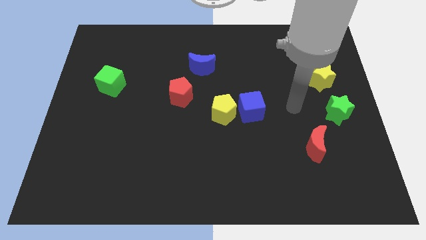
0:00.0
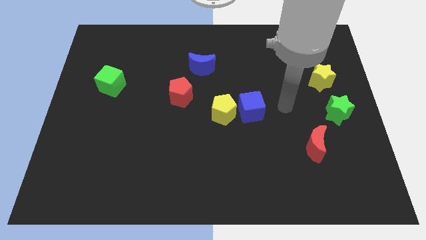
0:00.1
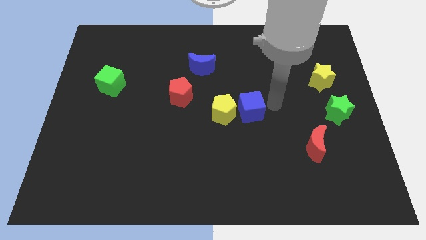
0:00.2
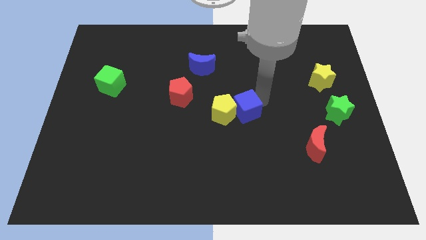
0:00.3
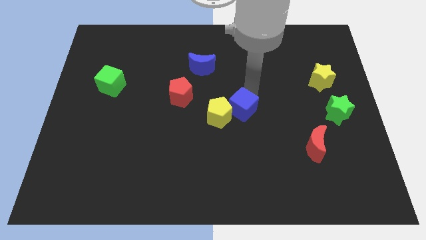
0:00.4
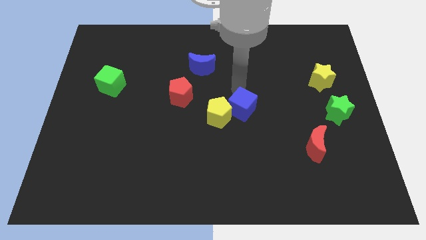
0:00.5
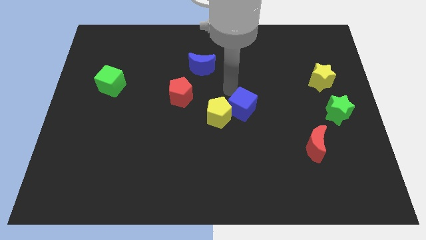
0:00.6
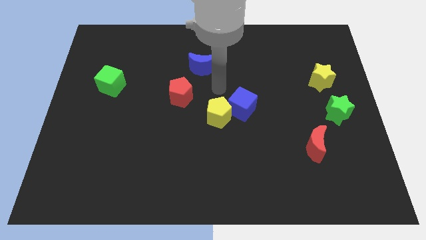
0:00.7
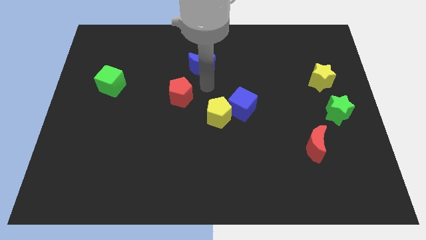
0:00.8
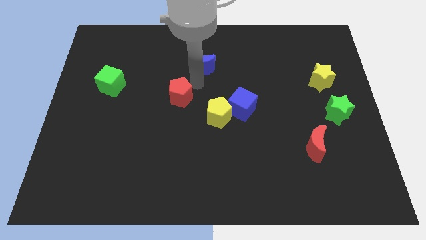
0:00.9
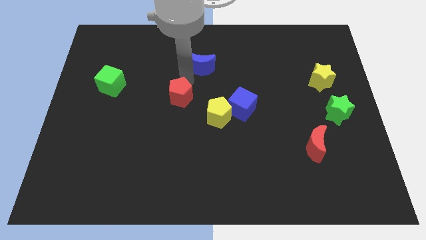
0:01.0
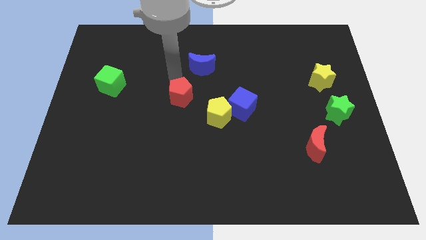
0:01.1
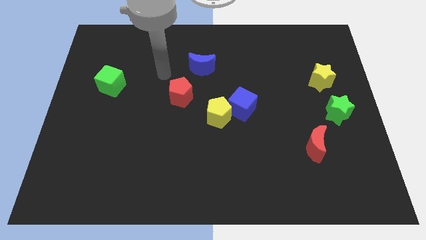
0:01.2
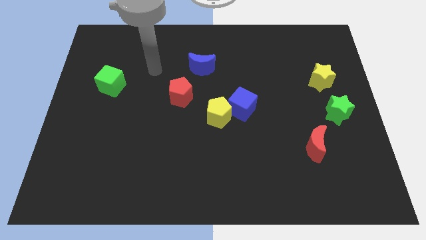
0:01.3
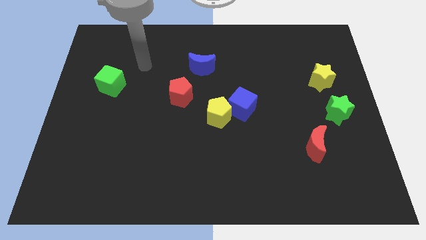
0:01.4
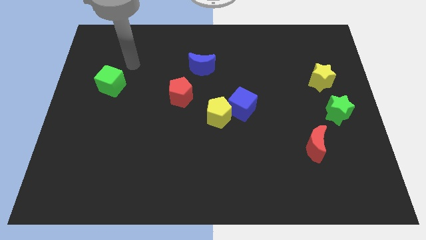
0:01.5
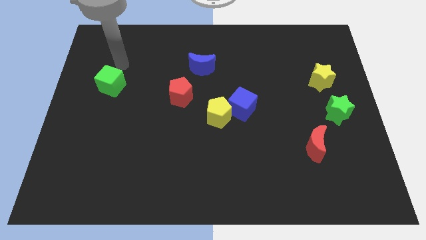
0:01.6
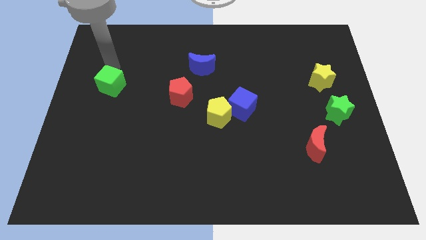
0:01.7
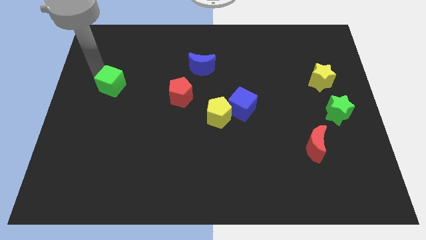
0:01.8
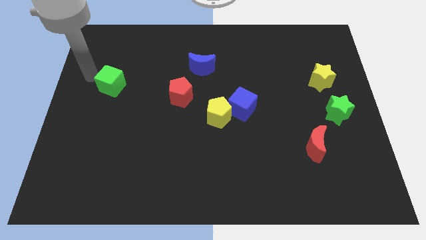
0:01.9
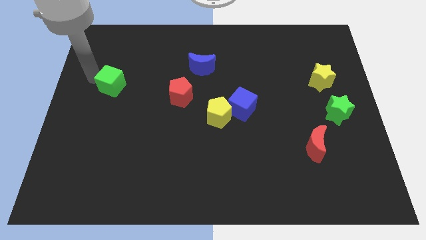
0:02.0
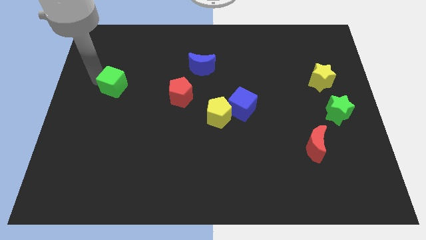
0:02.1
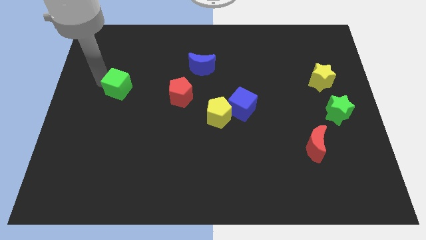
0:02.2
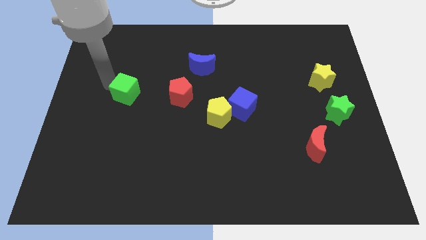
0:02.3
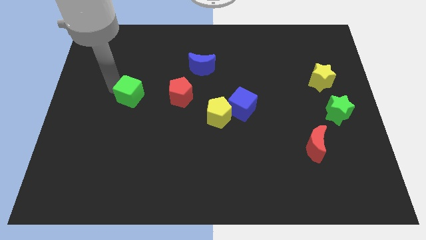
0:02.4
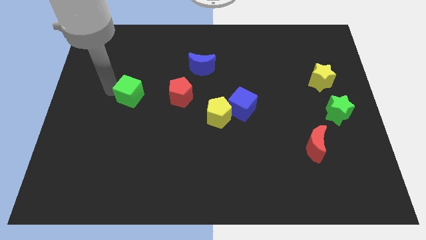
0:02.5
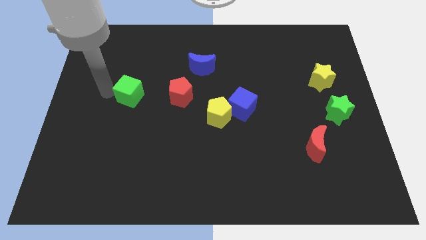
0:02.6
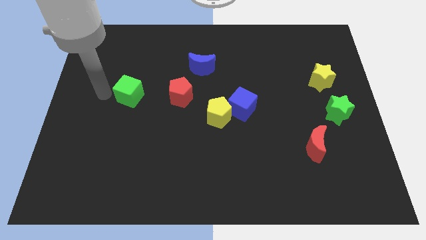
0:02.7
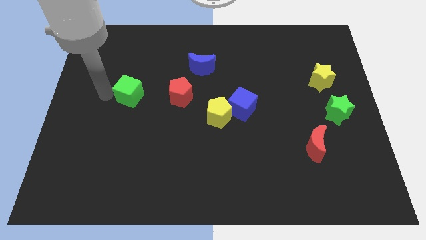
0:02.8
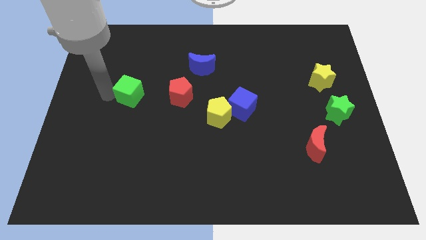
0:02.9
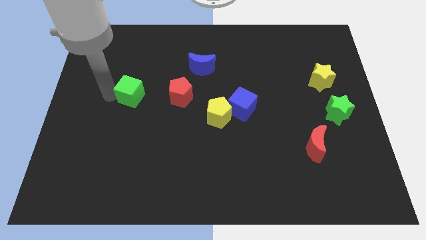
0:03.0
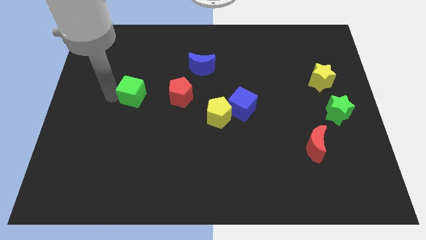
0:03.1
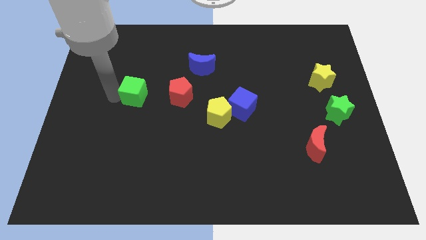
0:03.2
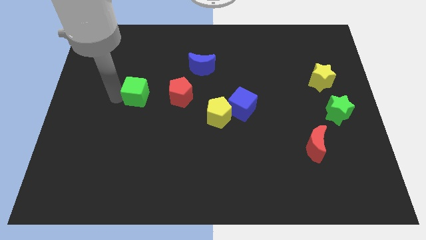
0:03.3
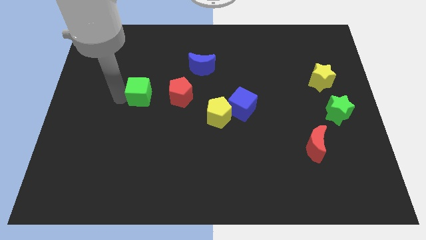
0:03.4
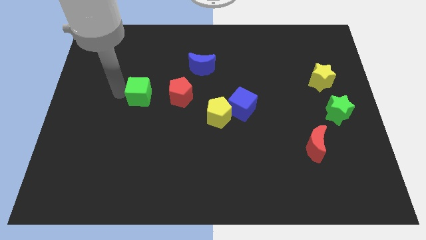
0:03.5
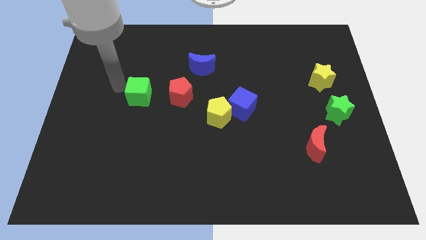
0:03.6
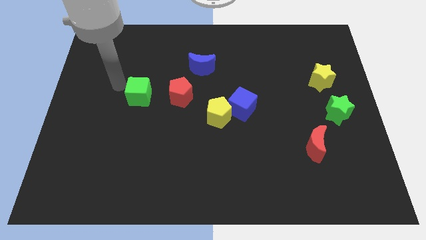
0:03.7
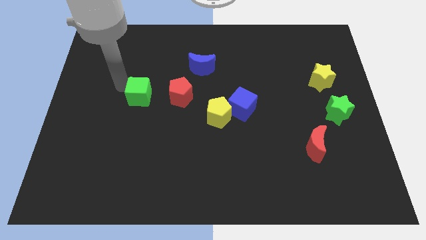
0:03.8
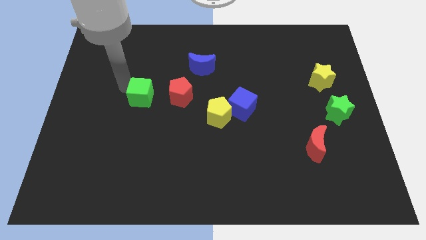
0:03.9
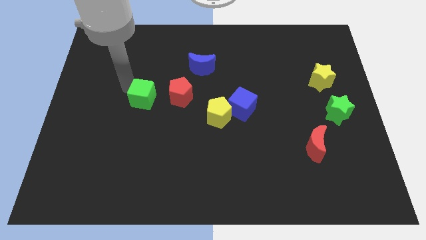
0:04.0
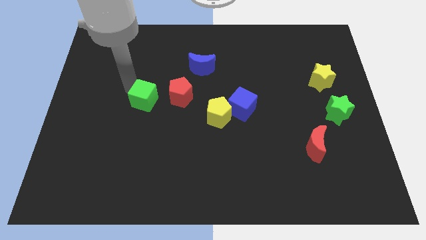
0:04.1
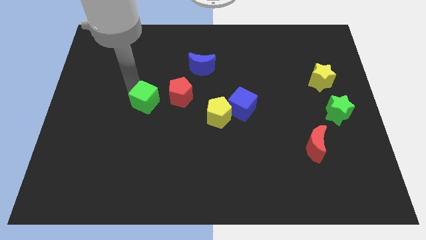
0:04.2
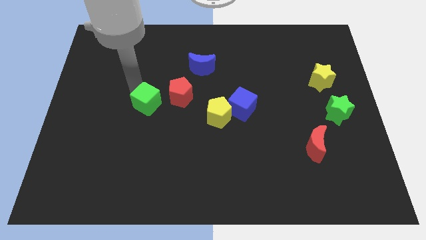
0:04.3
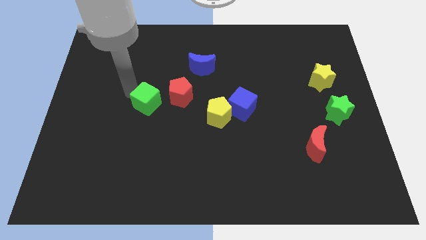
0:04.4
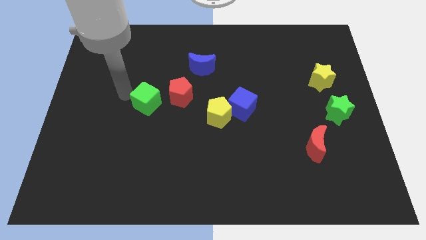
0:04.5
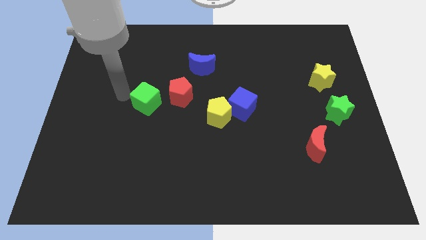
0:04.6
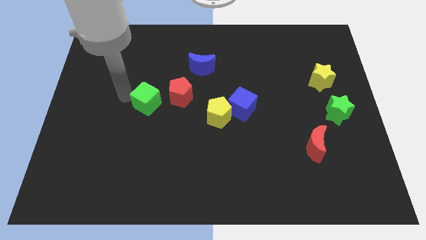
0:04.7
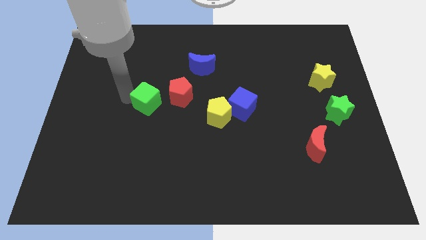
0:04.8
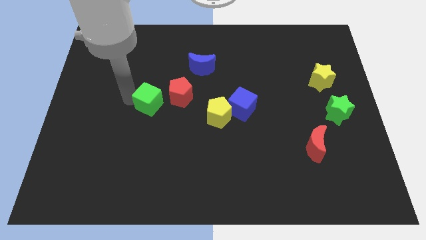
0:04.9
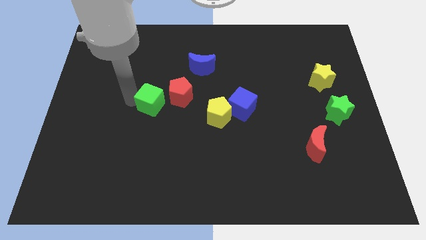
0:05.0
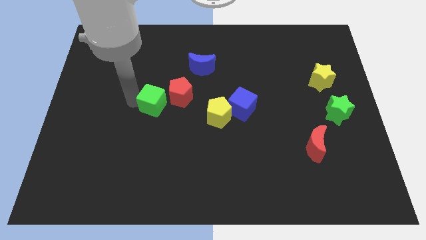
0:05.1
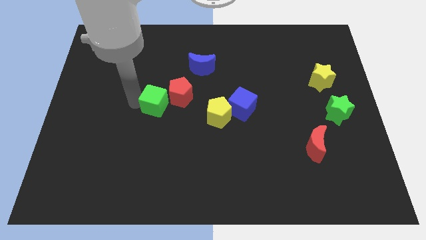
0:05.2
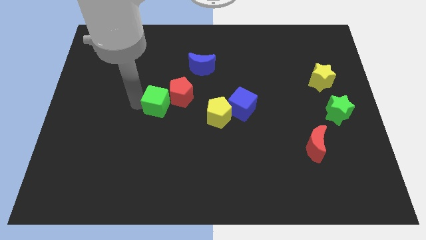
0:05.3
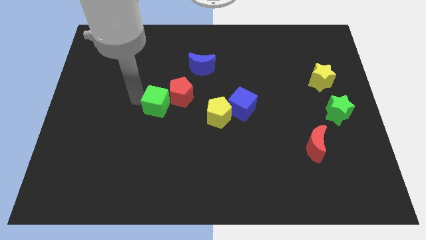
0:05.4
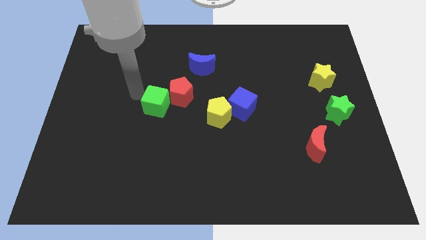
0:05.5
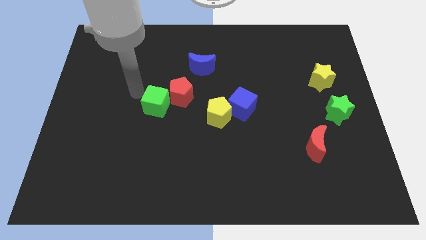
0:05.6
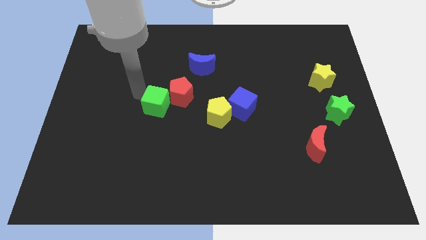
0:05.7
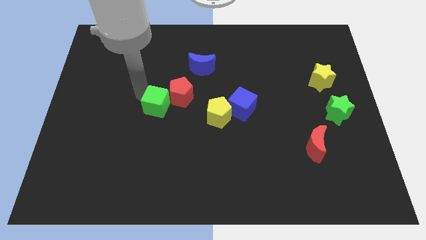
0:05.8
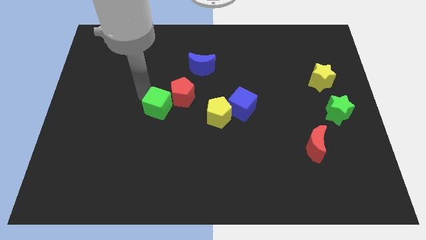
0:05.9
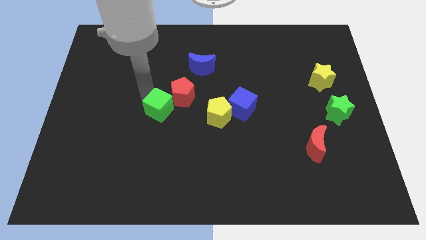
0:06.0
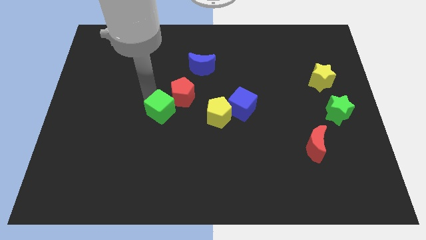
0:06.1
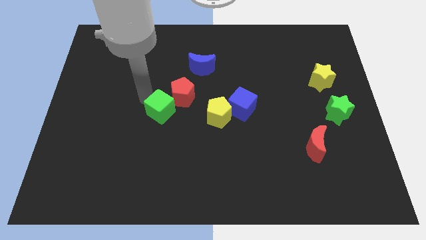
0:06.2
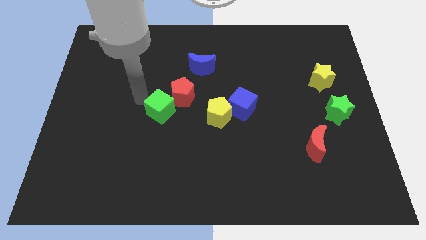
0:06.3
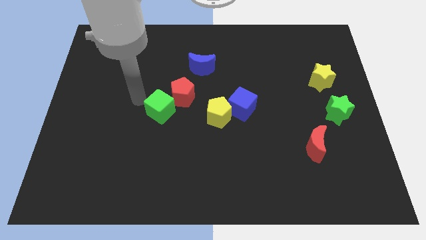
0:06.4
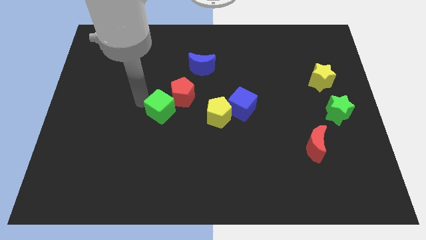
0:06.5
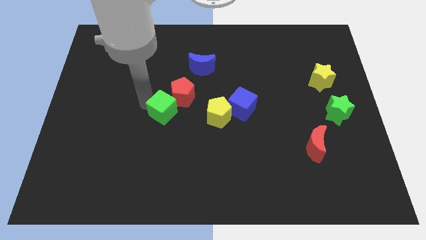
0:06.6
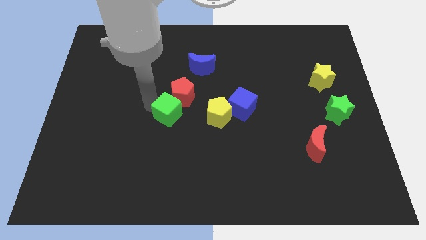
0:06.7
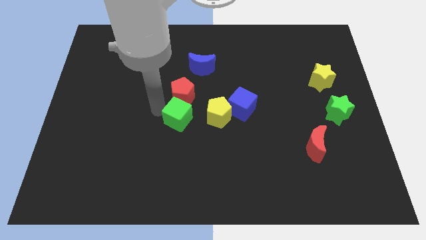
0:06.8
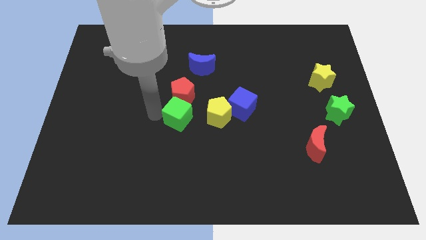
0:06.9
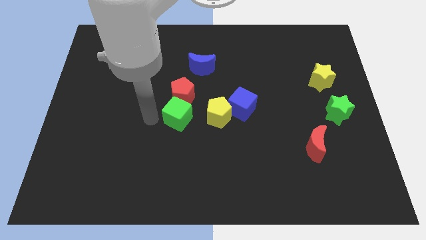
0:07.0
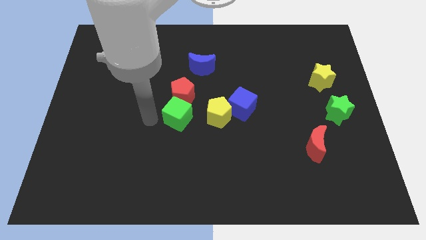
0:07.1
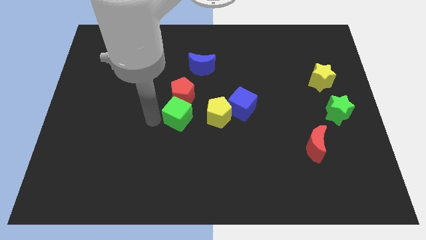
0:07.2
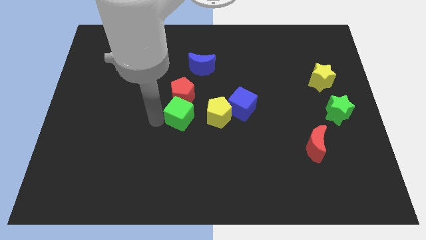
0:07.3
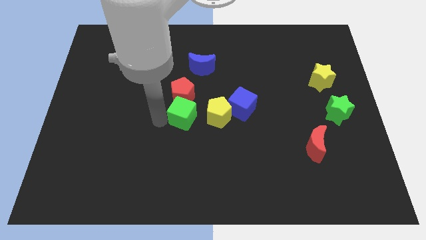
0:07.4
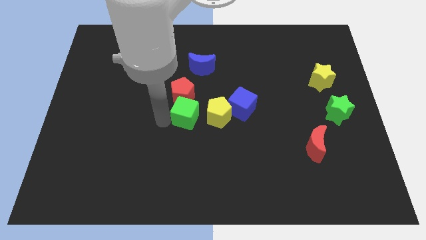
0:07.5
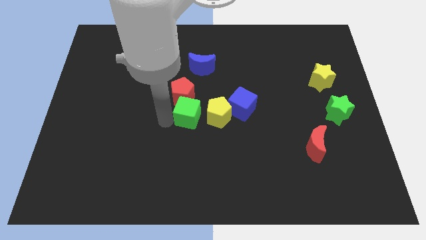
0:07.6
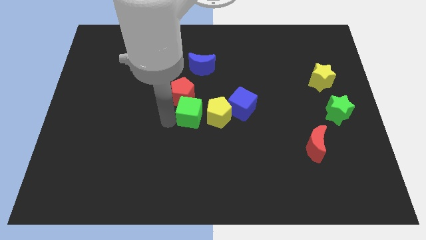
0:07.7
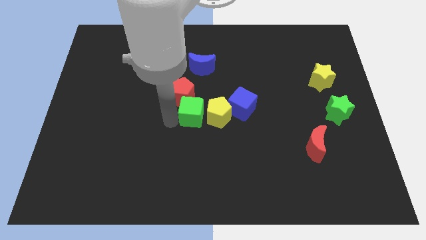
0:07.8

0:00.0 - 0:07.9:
slide the green cube towards the yellow pentagon
